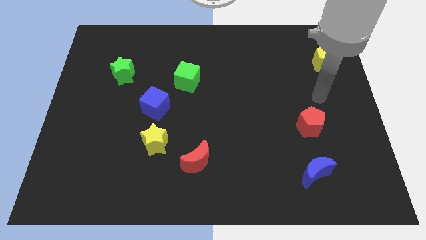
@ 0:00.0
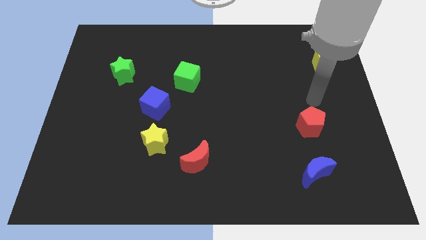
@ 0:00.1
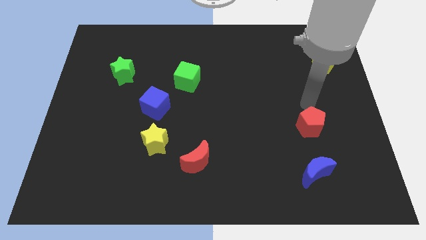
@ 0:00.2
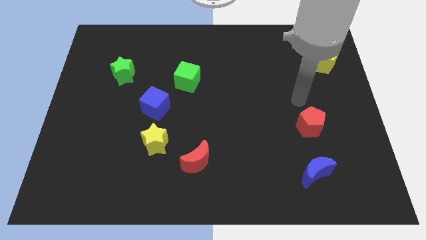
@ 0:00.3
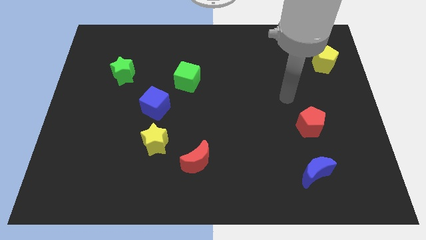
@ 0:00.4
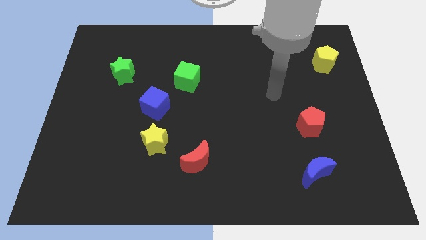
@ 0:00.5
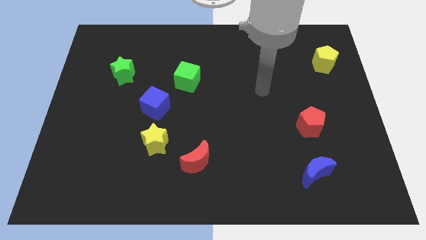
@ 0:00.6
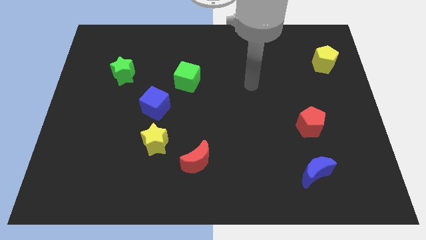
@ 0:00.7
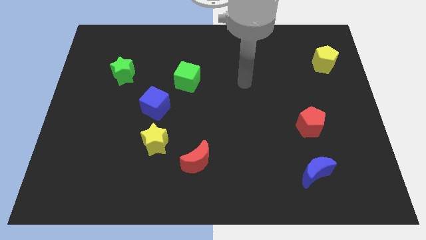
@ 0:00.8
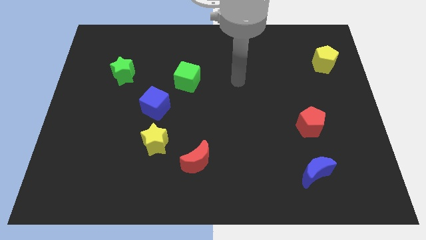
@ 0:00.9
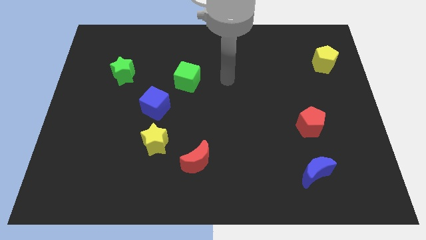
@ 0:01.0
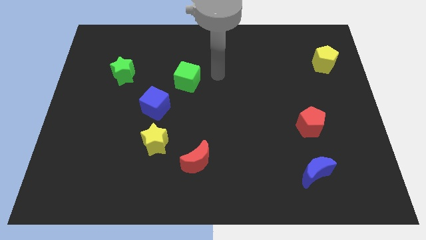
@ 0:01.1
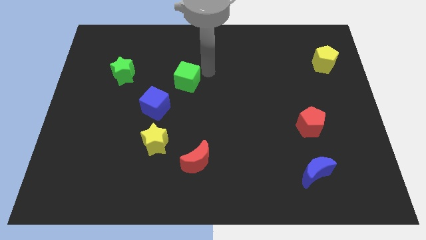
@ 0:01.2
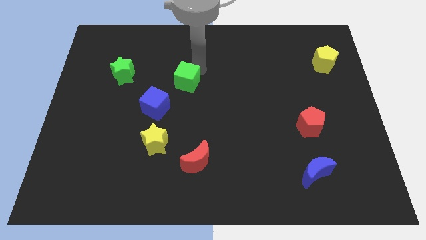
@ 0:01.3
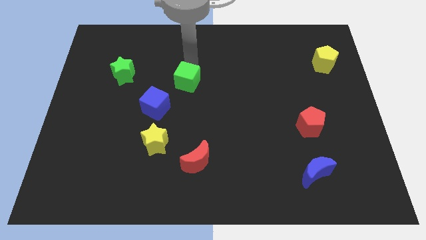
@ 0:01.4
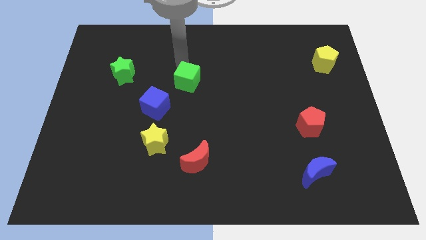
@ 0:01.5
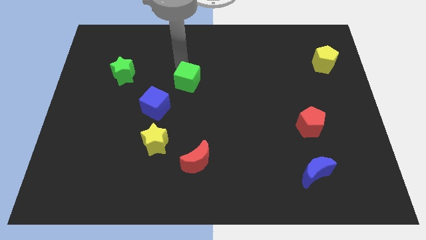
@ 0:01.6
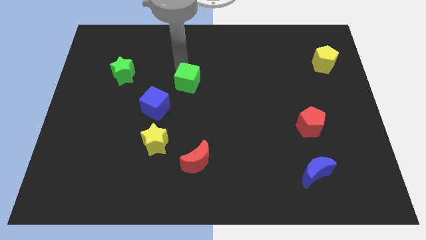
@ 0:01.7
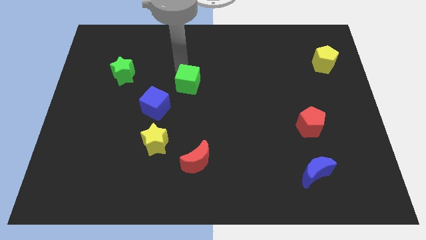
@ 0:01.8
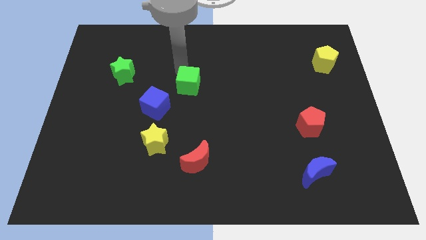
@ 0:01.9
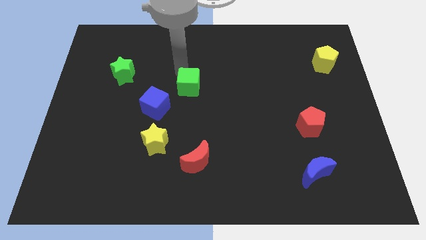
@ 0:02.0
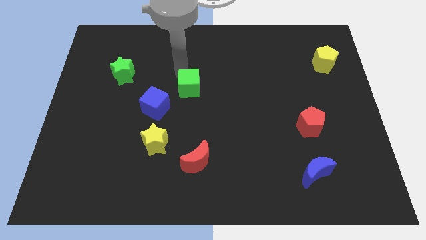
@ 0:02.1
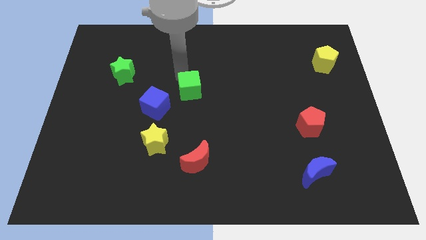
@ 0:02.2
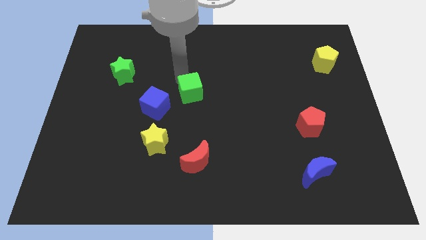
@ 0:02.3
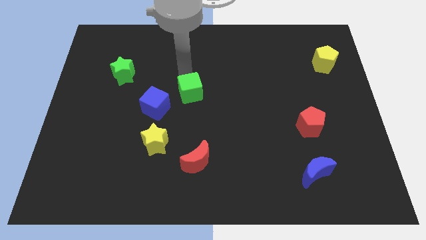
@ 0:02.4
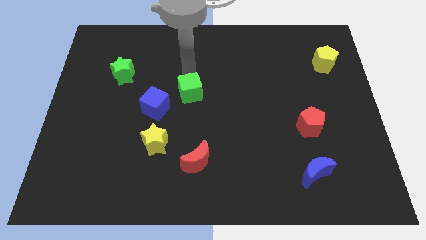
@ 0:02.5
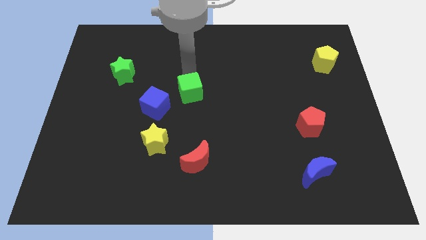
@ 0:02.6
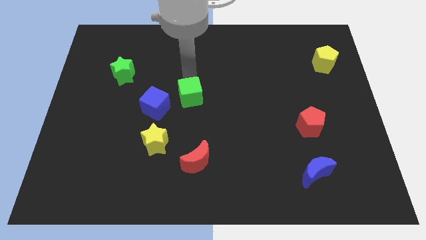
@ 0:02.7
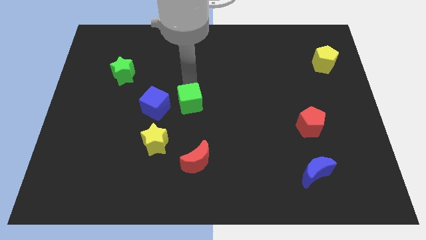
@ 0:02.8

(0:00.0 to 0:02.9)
push the green cube downwards a little

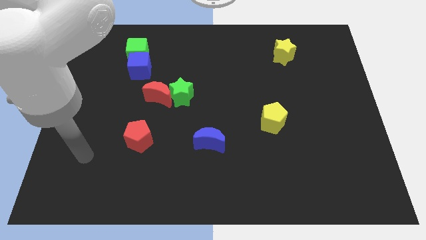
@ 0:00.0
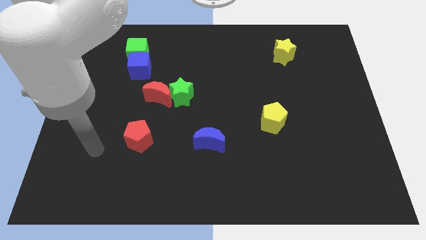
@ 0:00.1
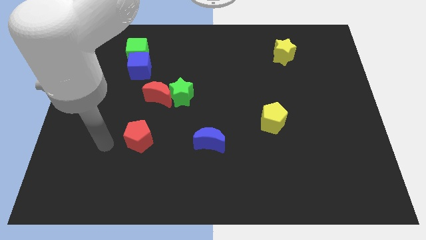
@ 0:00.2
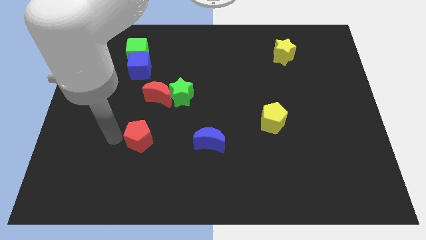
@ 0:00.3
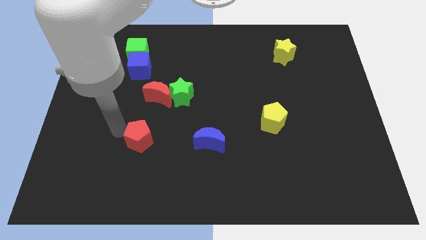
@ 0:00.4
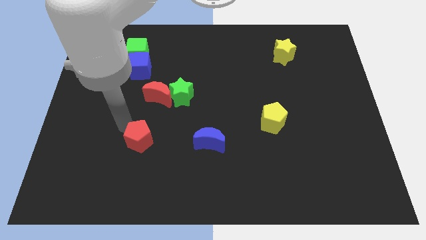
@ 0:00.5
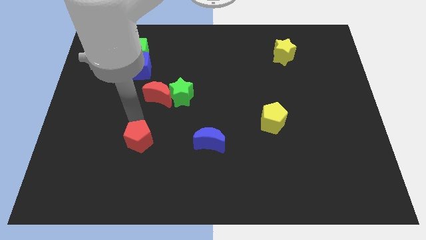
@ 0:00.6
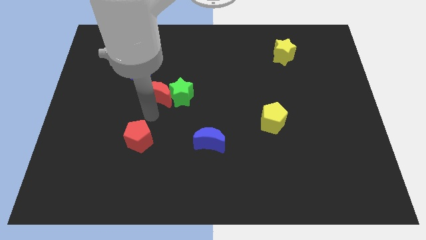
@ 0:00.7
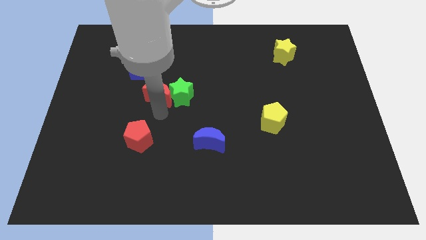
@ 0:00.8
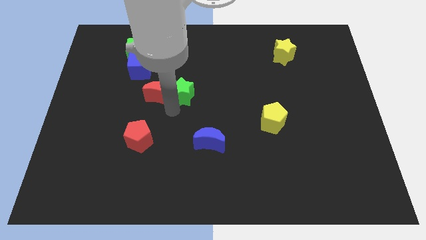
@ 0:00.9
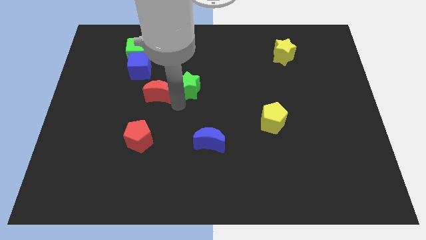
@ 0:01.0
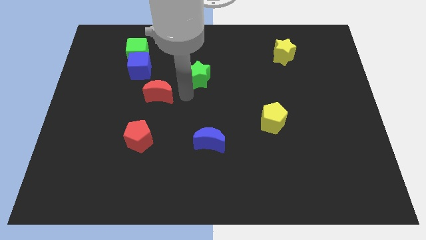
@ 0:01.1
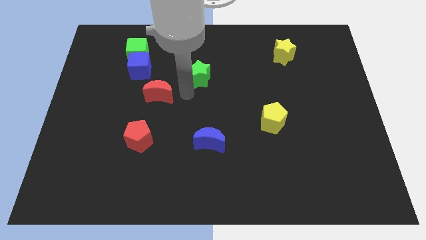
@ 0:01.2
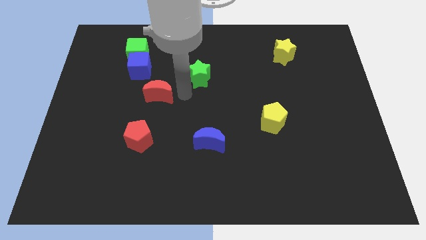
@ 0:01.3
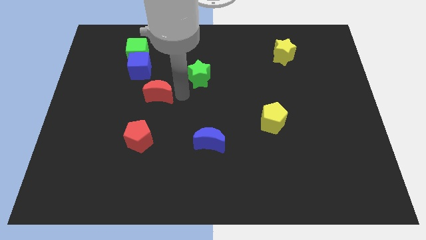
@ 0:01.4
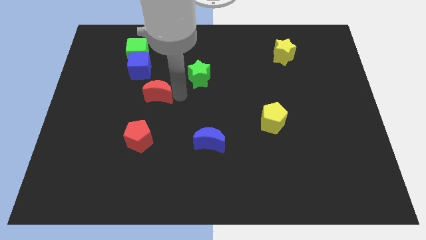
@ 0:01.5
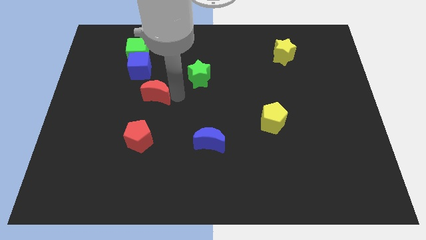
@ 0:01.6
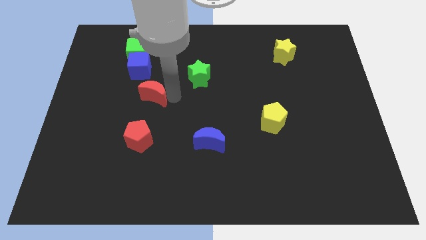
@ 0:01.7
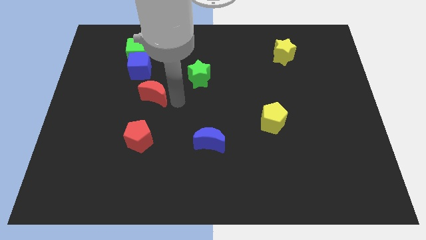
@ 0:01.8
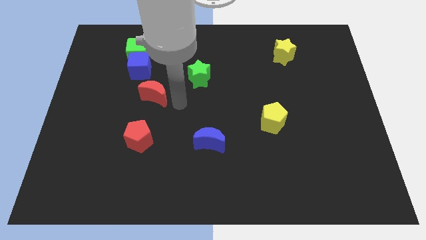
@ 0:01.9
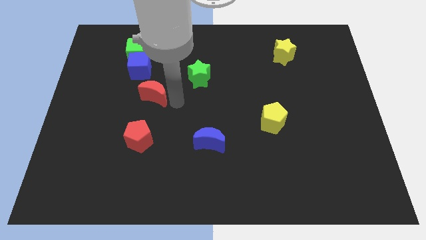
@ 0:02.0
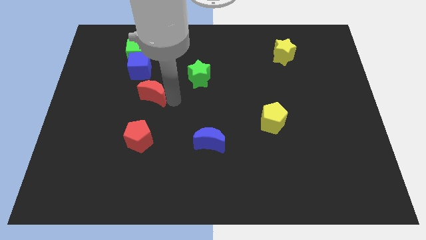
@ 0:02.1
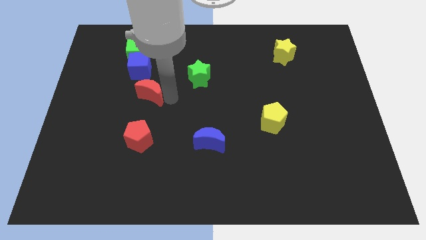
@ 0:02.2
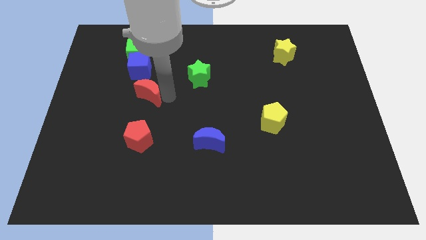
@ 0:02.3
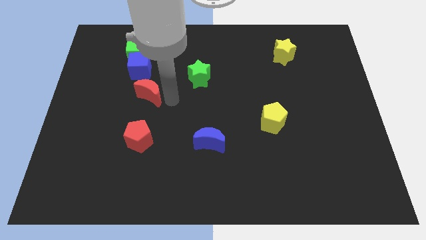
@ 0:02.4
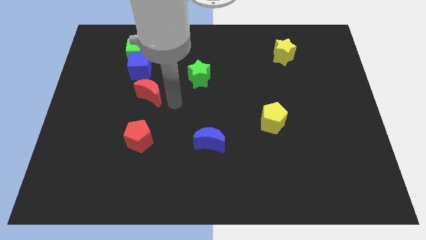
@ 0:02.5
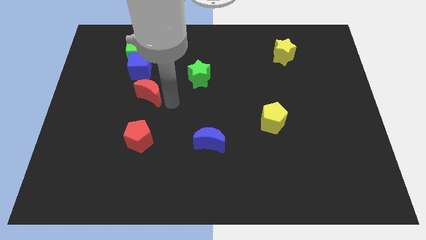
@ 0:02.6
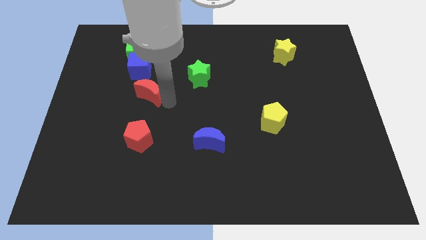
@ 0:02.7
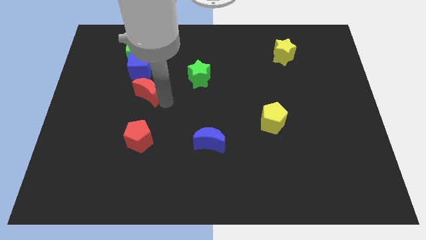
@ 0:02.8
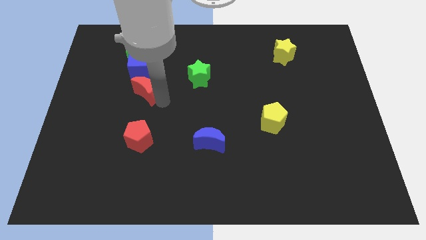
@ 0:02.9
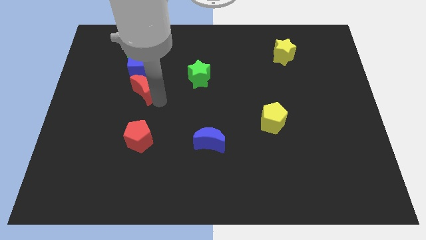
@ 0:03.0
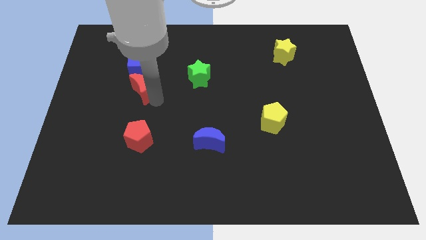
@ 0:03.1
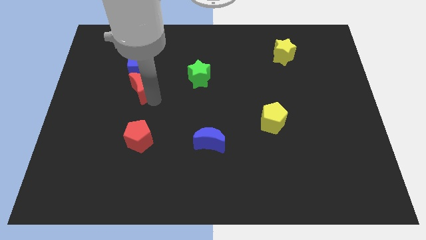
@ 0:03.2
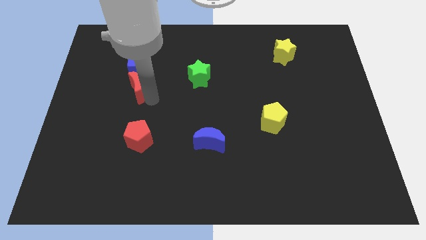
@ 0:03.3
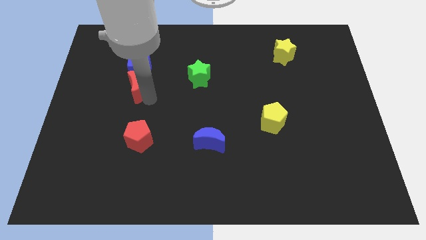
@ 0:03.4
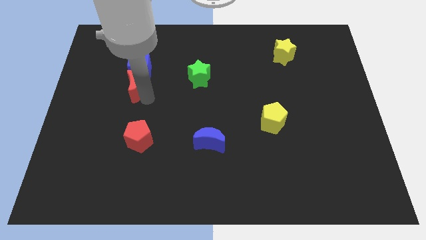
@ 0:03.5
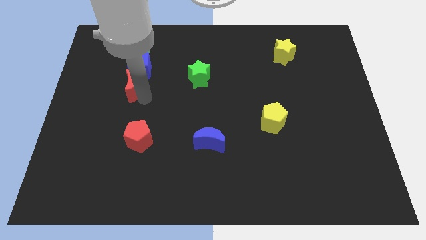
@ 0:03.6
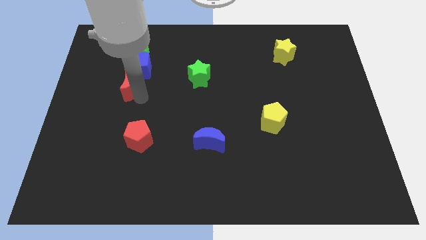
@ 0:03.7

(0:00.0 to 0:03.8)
move the red moon slightly up and left

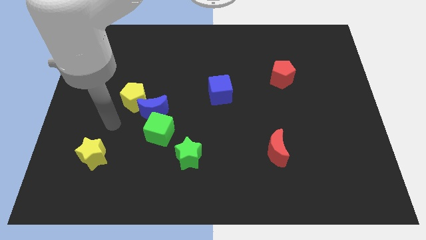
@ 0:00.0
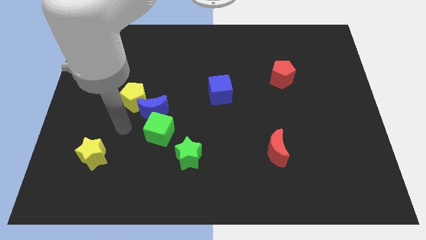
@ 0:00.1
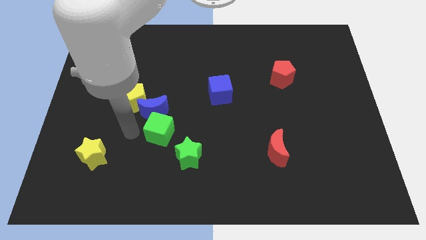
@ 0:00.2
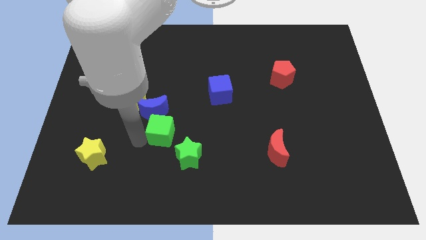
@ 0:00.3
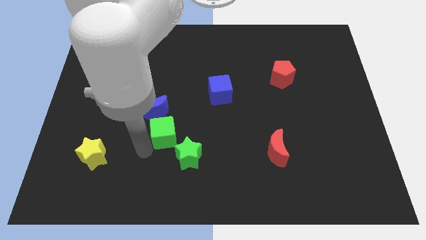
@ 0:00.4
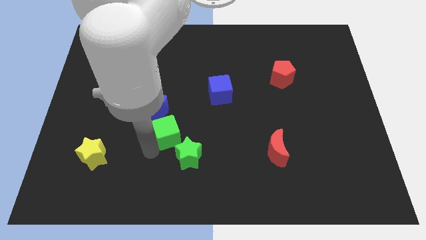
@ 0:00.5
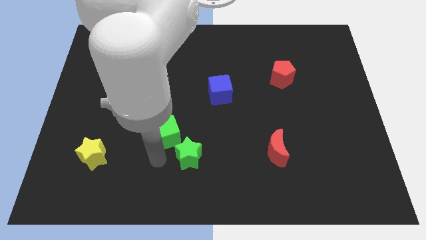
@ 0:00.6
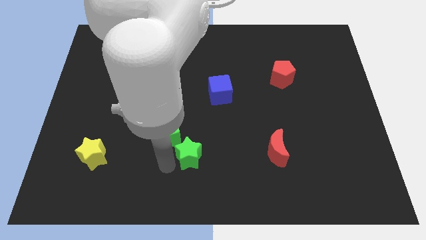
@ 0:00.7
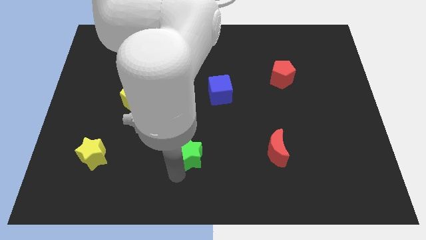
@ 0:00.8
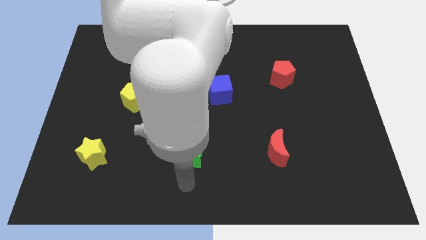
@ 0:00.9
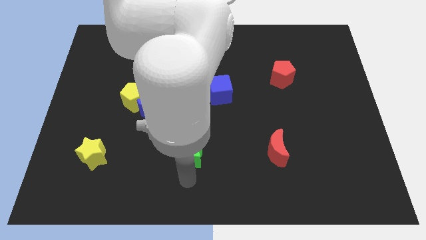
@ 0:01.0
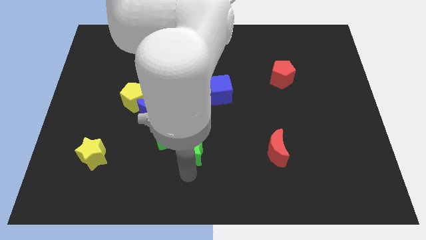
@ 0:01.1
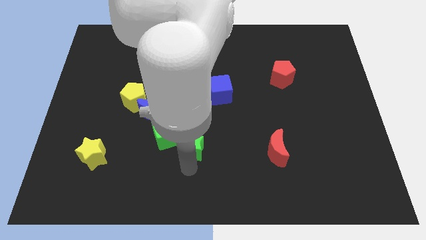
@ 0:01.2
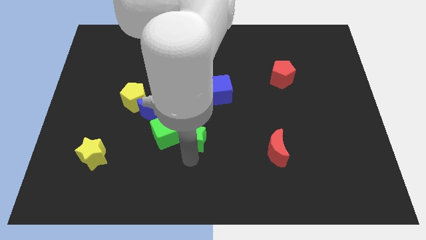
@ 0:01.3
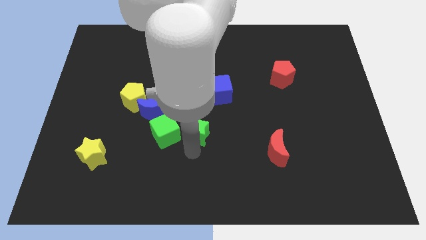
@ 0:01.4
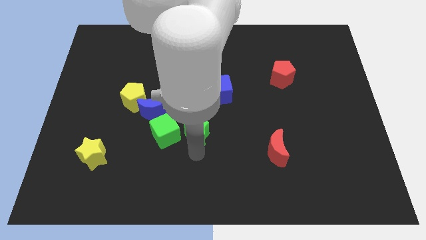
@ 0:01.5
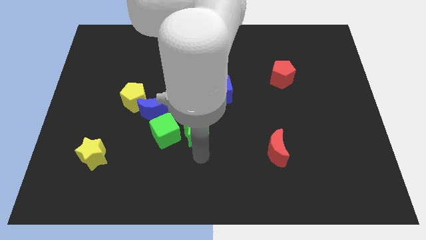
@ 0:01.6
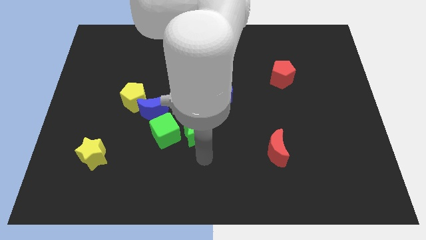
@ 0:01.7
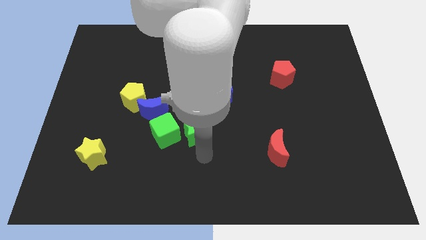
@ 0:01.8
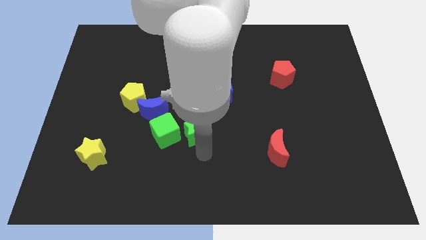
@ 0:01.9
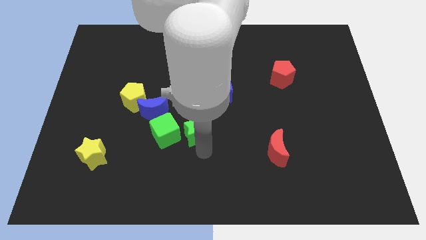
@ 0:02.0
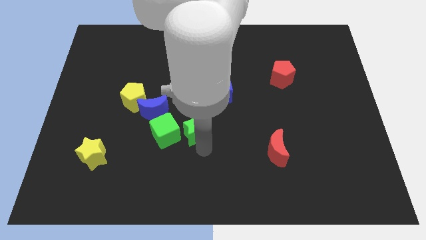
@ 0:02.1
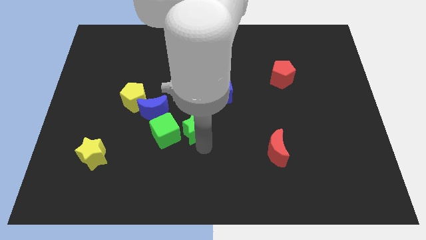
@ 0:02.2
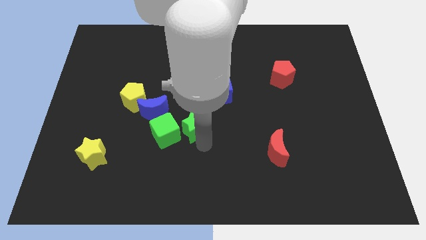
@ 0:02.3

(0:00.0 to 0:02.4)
slide the green star up somewhat
